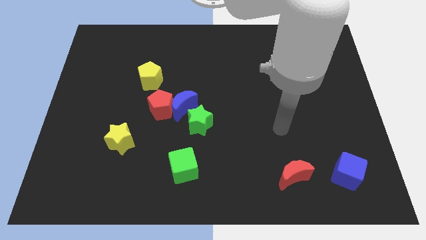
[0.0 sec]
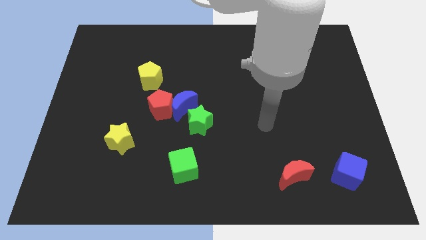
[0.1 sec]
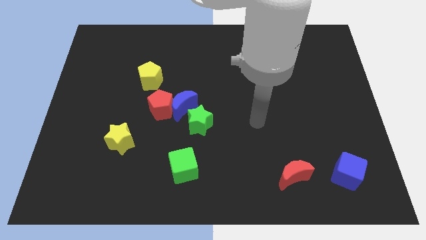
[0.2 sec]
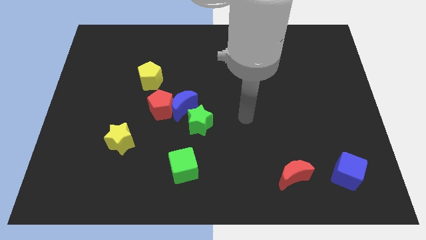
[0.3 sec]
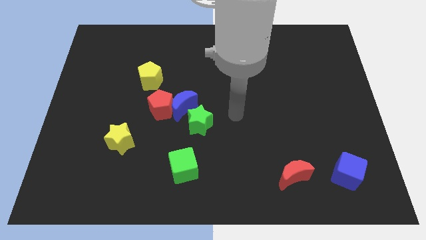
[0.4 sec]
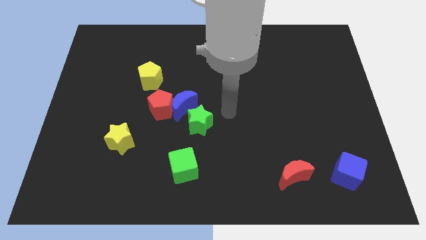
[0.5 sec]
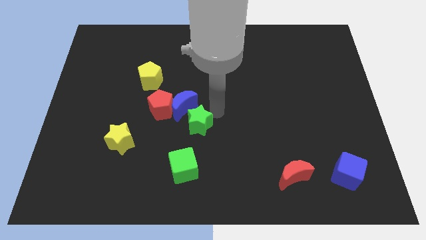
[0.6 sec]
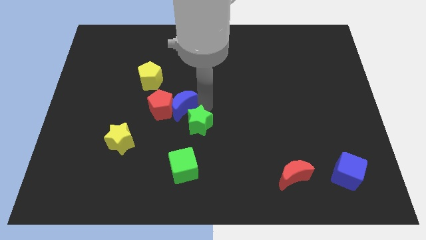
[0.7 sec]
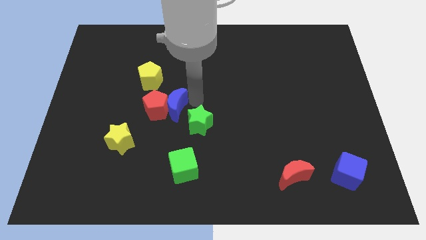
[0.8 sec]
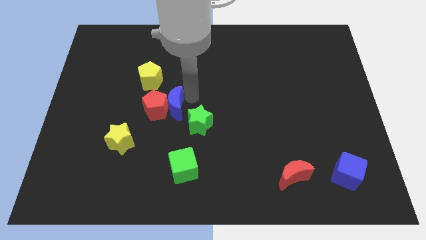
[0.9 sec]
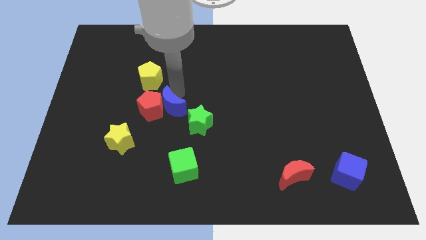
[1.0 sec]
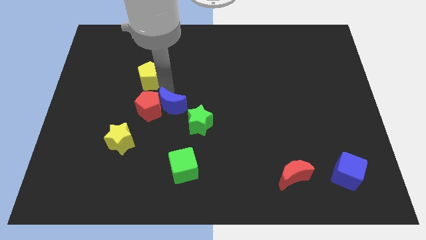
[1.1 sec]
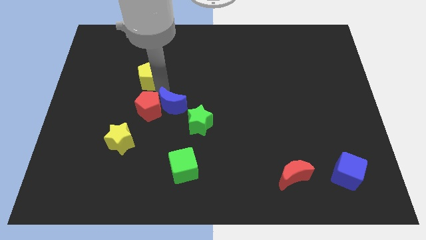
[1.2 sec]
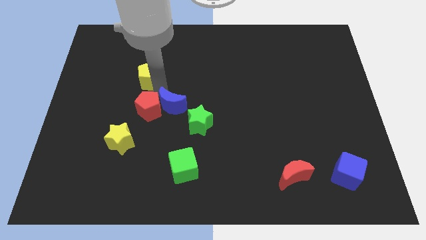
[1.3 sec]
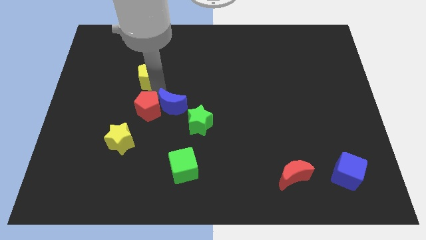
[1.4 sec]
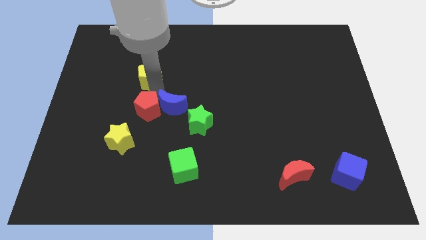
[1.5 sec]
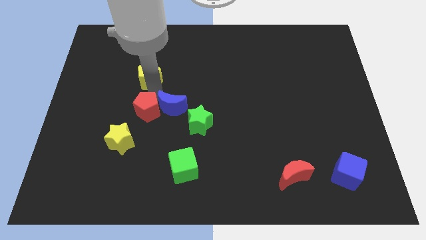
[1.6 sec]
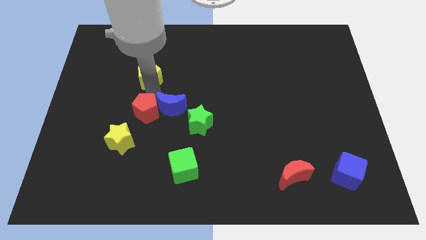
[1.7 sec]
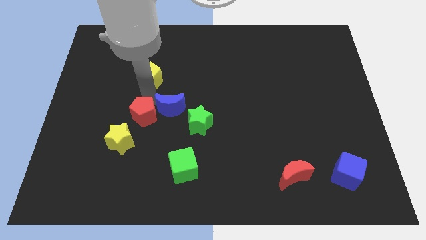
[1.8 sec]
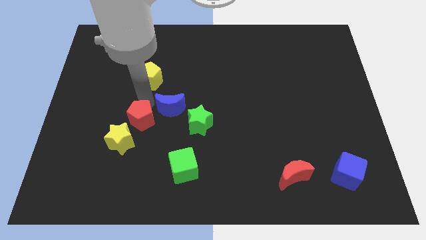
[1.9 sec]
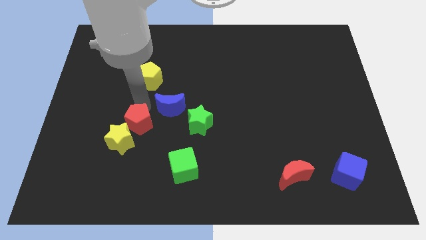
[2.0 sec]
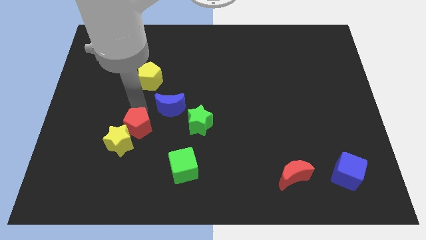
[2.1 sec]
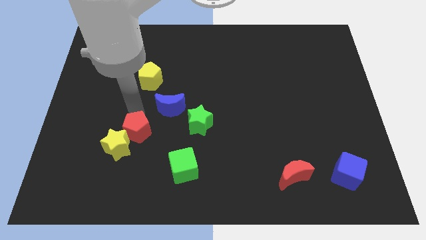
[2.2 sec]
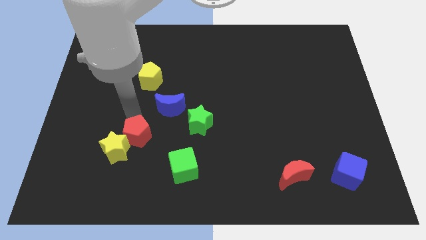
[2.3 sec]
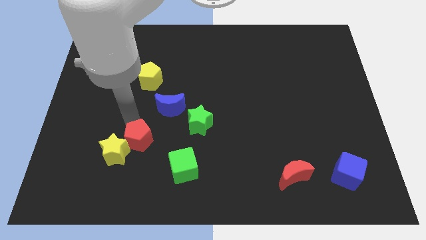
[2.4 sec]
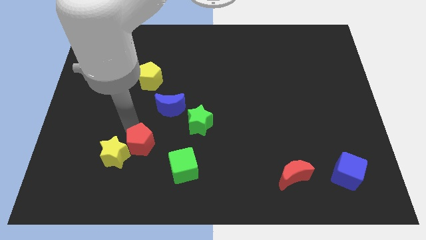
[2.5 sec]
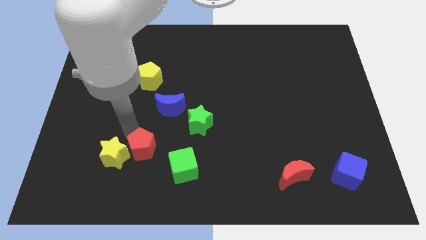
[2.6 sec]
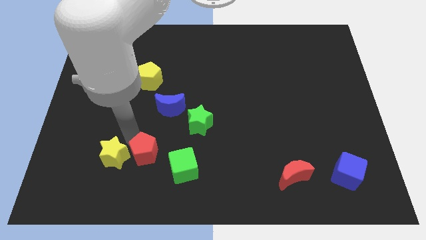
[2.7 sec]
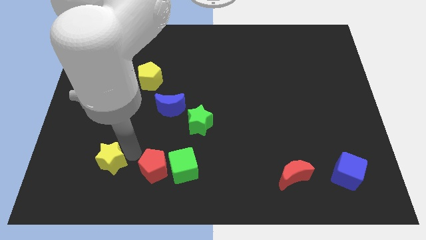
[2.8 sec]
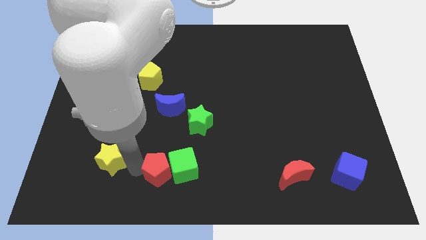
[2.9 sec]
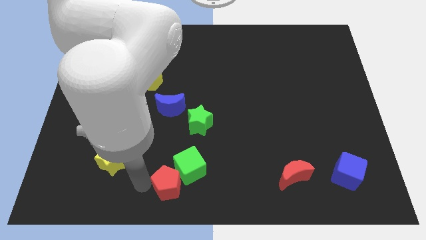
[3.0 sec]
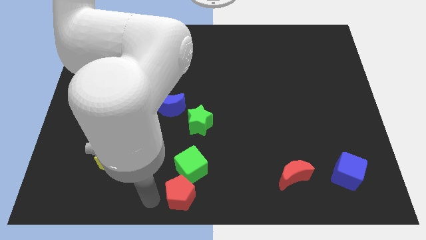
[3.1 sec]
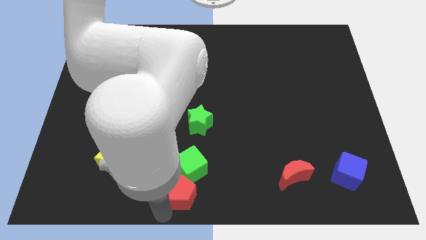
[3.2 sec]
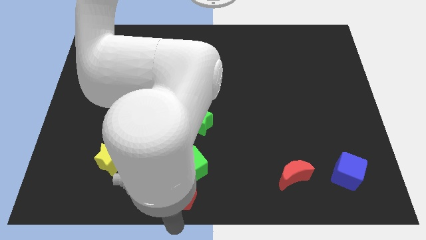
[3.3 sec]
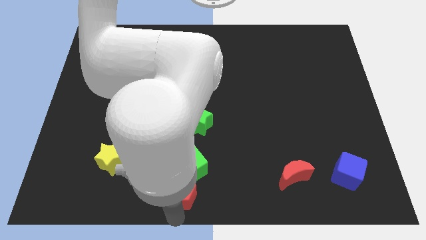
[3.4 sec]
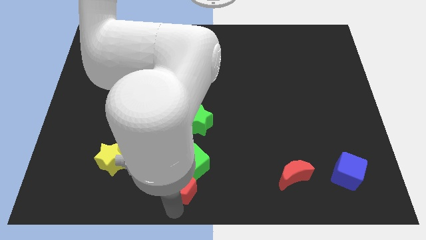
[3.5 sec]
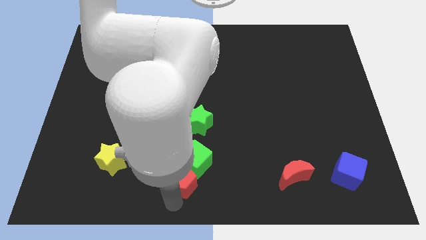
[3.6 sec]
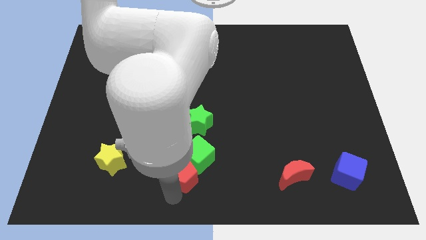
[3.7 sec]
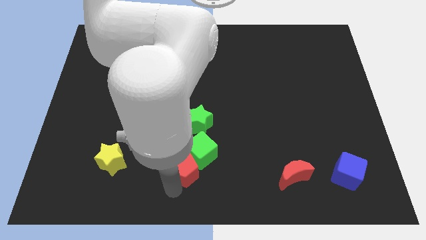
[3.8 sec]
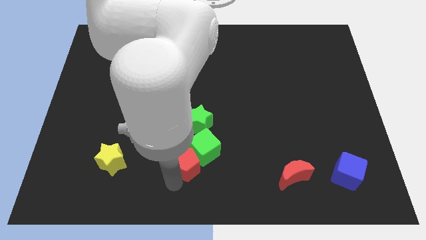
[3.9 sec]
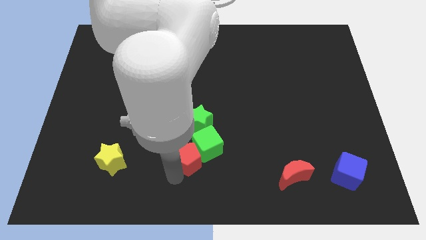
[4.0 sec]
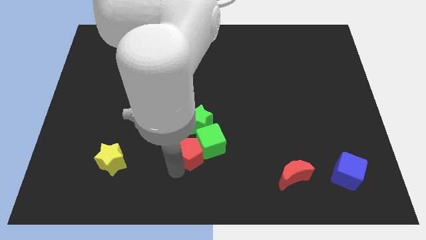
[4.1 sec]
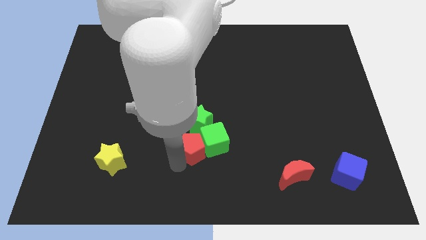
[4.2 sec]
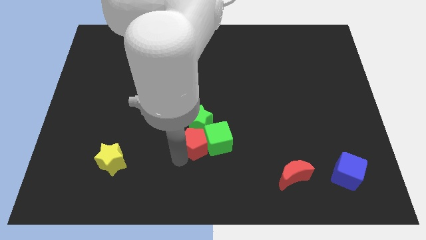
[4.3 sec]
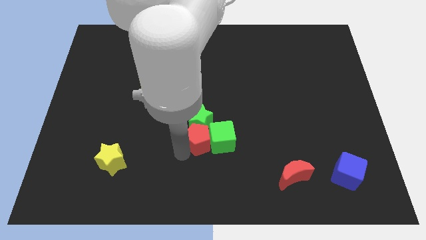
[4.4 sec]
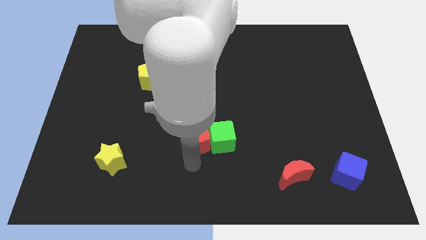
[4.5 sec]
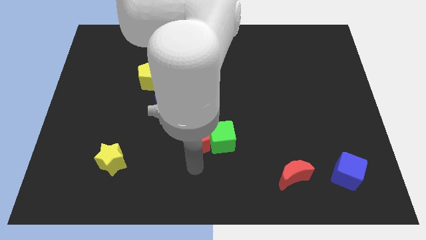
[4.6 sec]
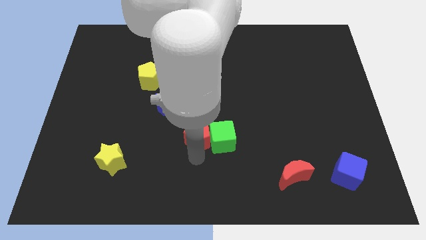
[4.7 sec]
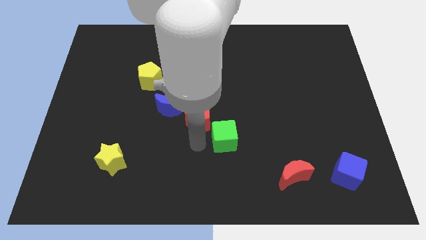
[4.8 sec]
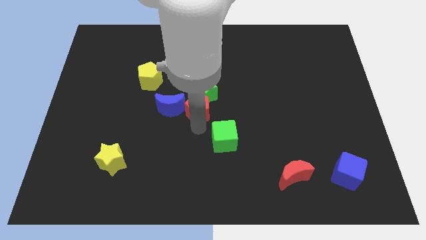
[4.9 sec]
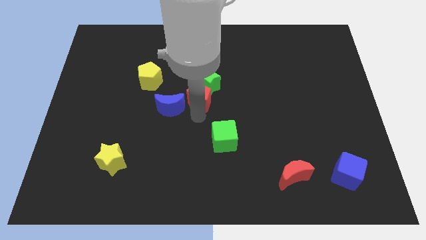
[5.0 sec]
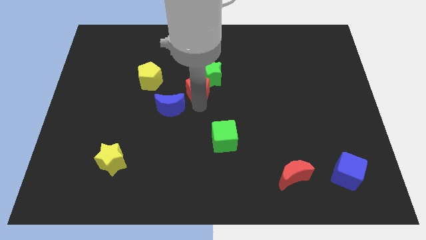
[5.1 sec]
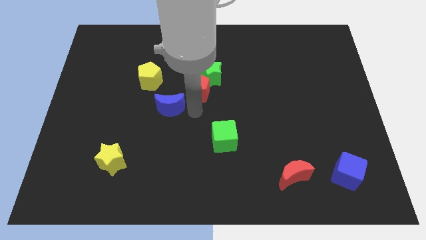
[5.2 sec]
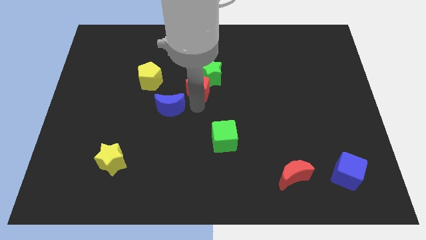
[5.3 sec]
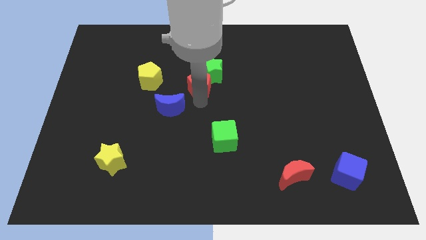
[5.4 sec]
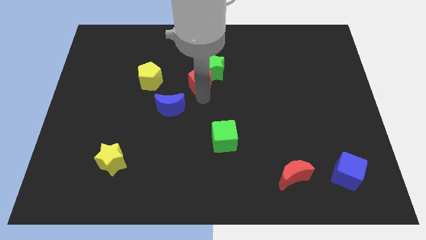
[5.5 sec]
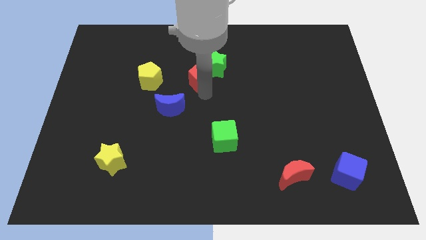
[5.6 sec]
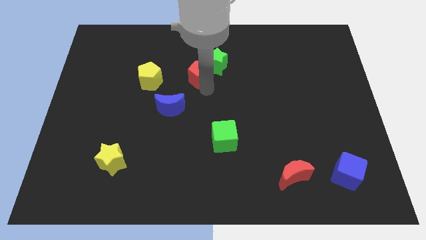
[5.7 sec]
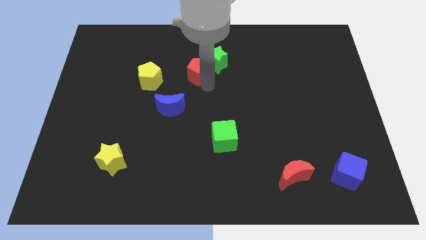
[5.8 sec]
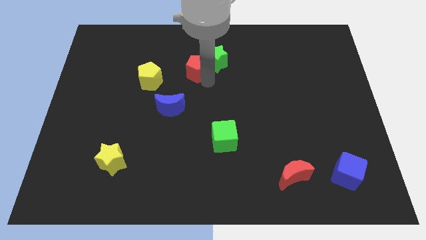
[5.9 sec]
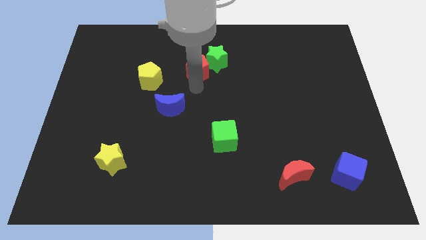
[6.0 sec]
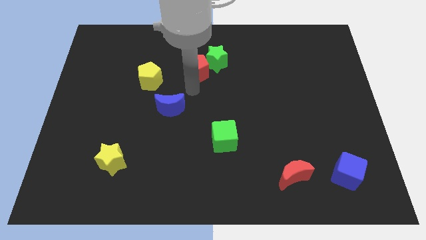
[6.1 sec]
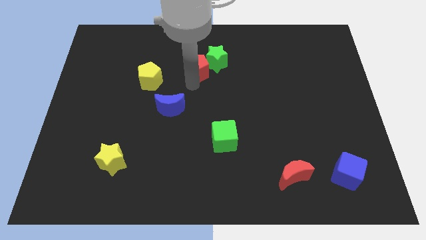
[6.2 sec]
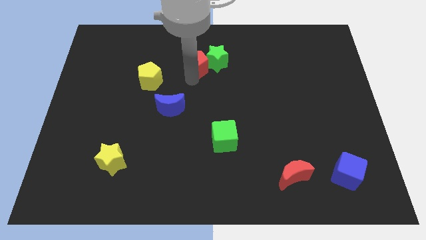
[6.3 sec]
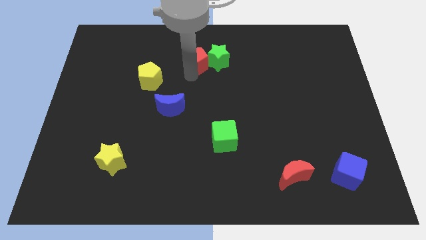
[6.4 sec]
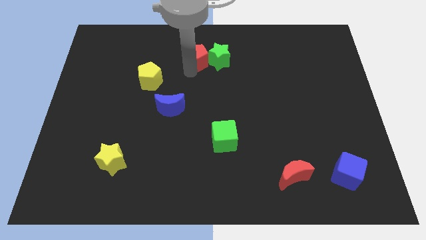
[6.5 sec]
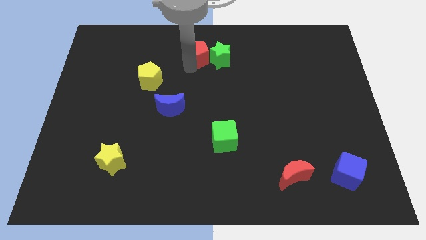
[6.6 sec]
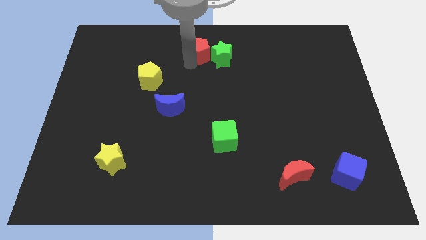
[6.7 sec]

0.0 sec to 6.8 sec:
move the red pentagon to the top side

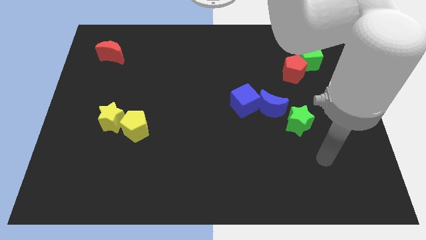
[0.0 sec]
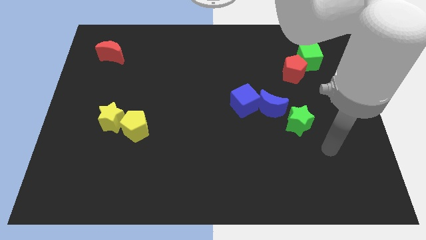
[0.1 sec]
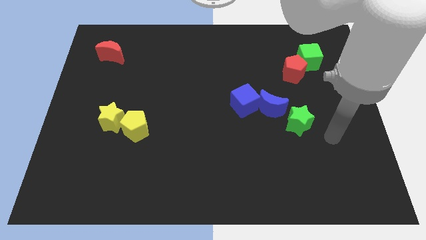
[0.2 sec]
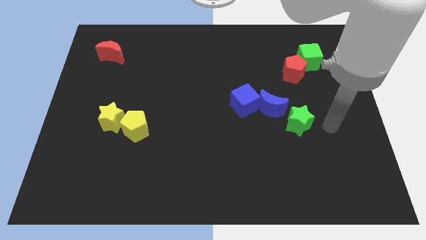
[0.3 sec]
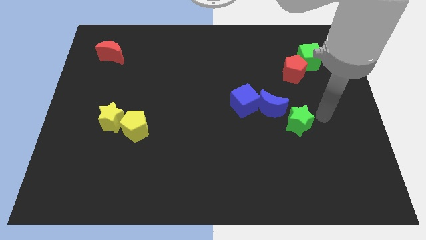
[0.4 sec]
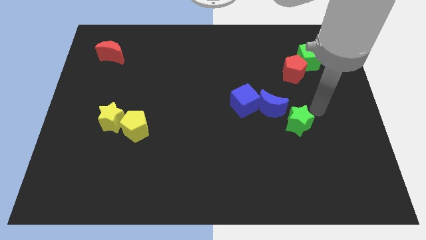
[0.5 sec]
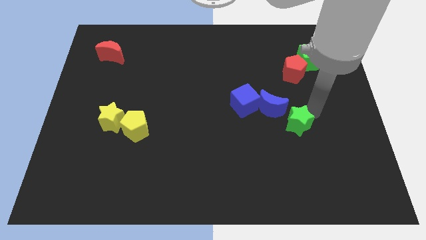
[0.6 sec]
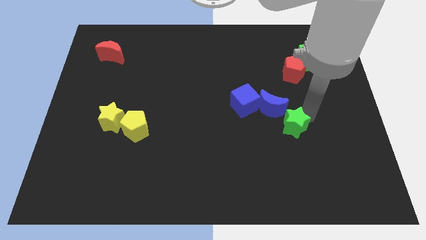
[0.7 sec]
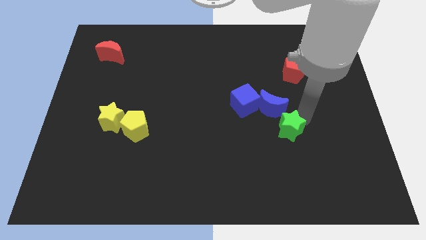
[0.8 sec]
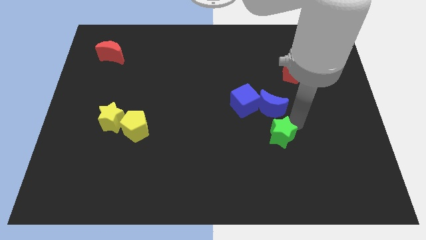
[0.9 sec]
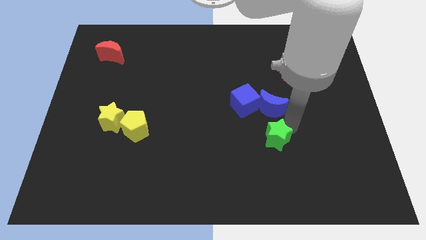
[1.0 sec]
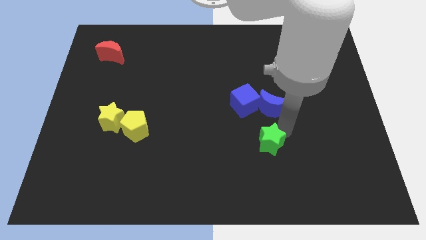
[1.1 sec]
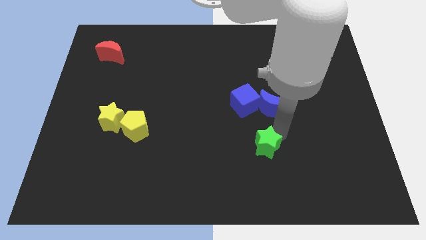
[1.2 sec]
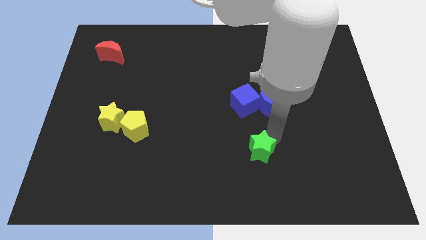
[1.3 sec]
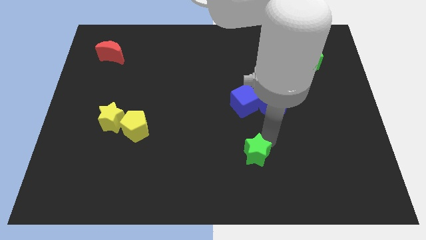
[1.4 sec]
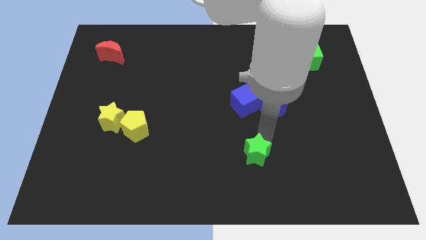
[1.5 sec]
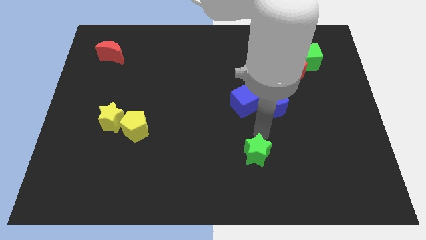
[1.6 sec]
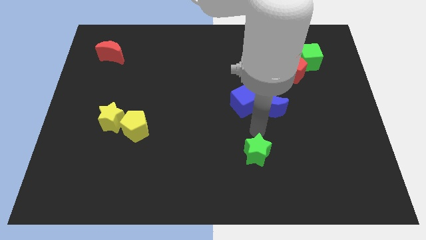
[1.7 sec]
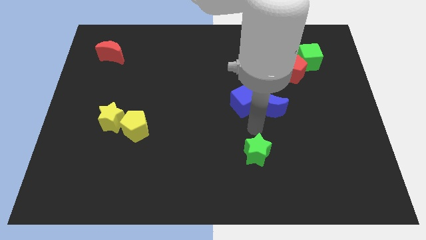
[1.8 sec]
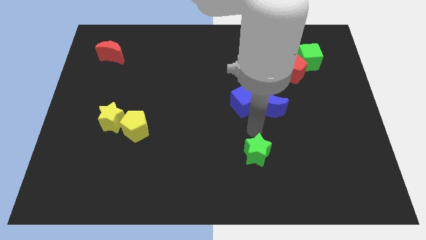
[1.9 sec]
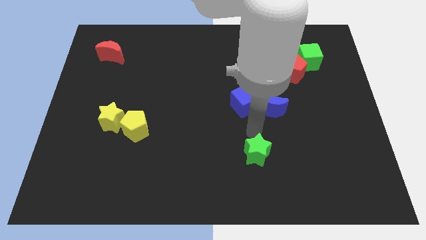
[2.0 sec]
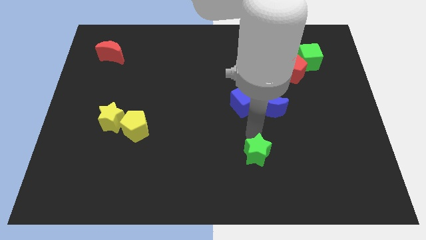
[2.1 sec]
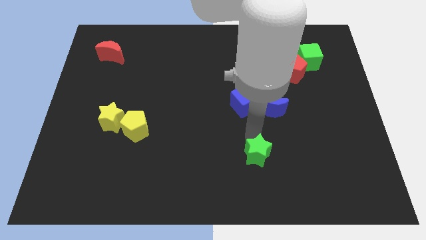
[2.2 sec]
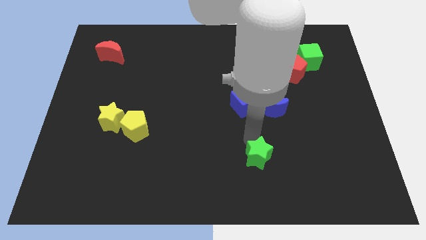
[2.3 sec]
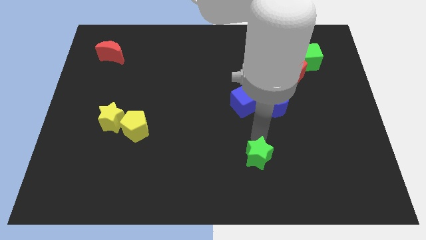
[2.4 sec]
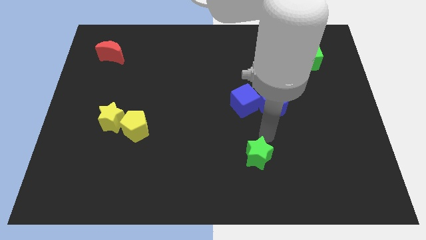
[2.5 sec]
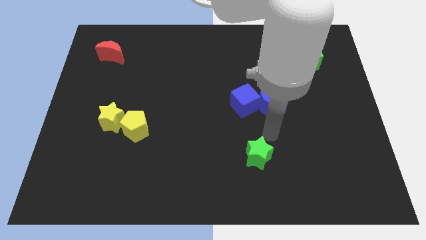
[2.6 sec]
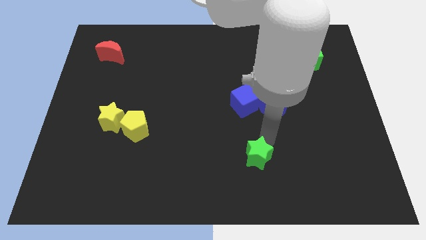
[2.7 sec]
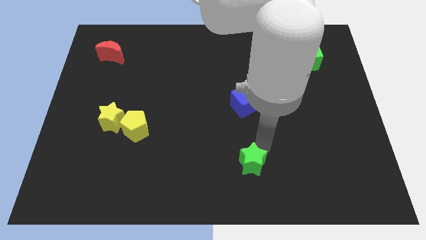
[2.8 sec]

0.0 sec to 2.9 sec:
put the green star to the bottom side
